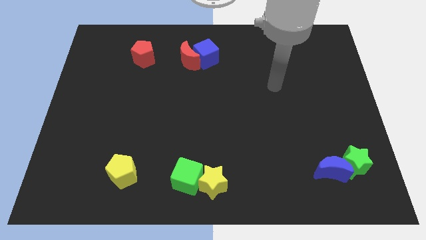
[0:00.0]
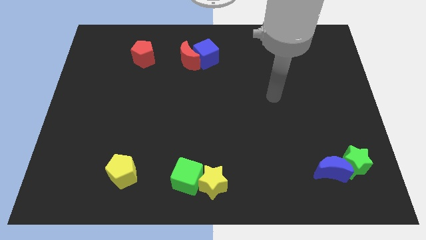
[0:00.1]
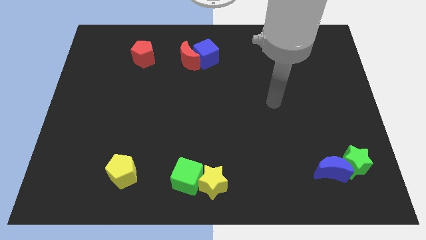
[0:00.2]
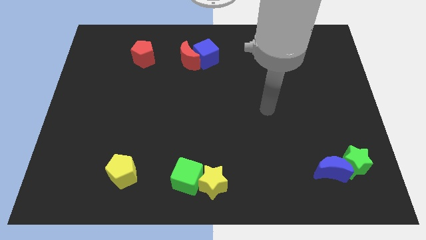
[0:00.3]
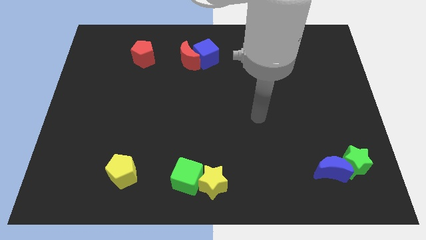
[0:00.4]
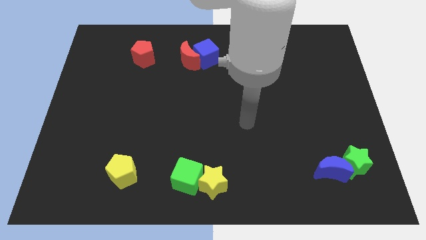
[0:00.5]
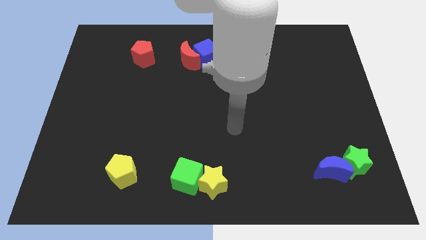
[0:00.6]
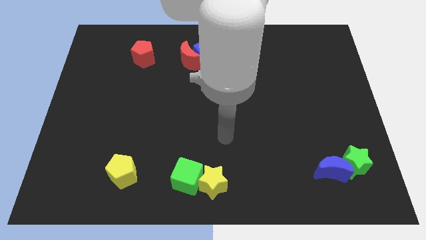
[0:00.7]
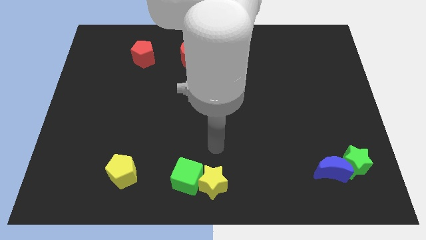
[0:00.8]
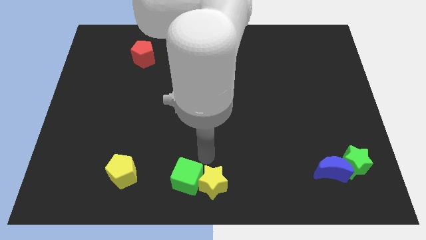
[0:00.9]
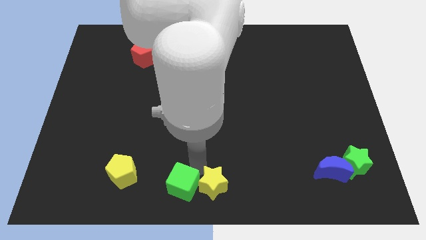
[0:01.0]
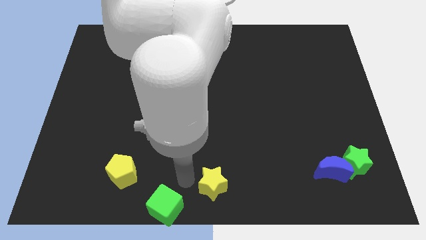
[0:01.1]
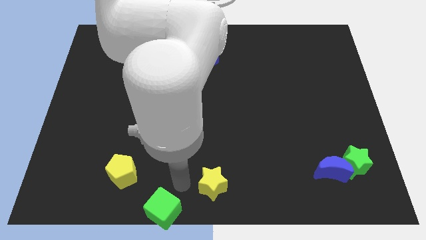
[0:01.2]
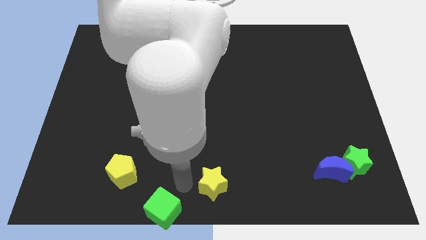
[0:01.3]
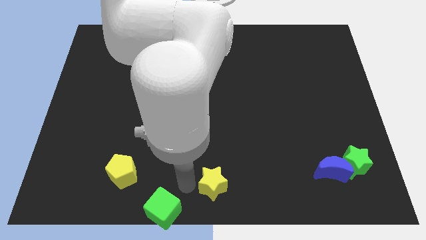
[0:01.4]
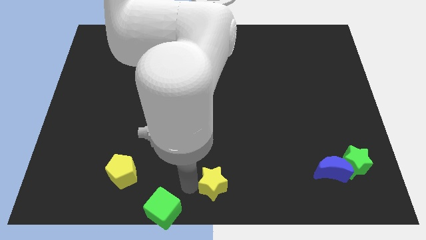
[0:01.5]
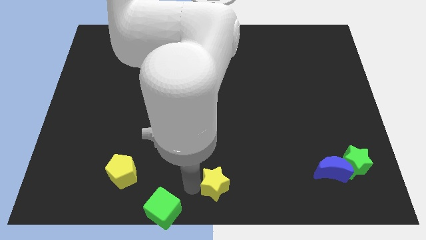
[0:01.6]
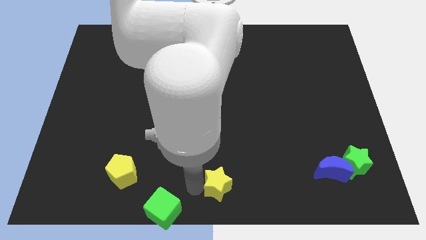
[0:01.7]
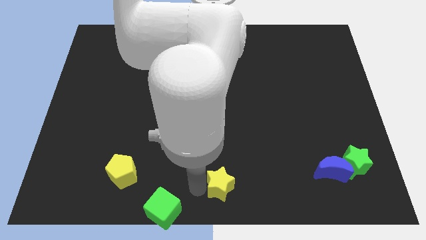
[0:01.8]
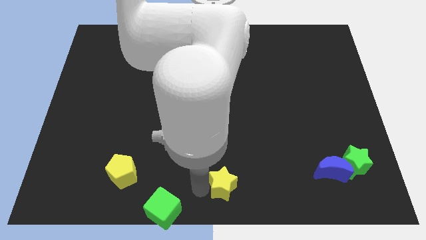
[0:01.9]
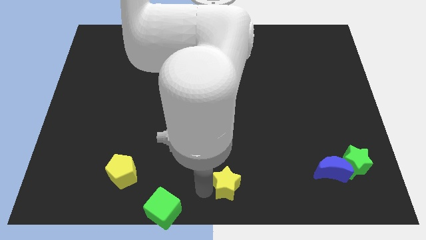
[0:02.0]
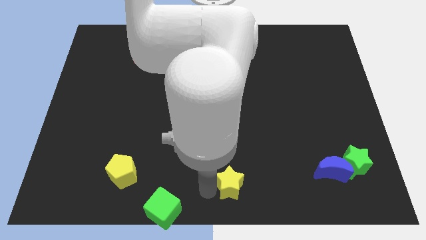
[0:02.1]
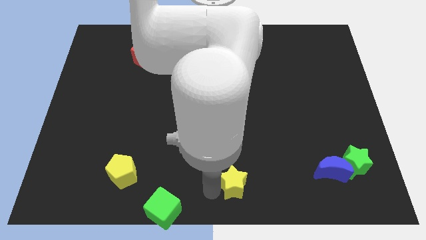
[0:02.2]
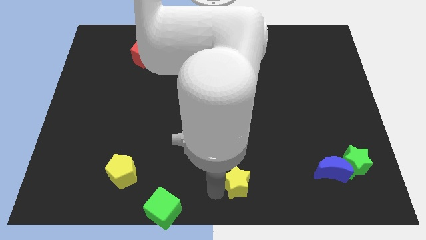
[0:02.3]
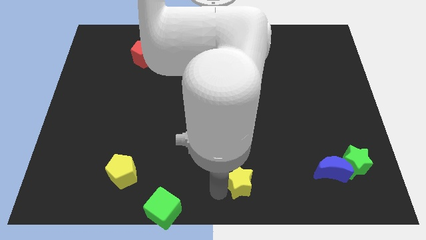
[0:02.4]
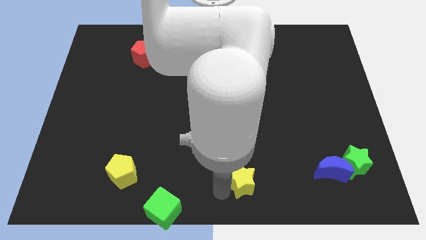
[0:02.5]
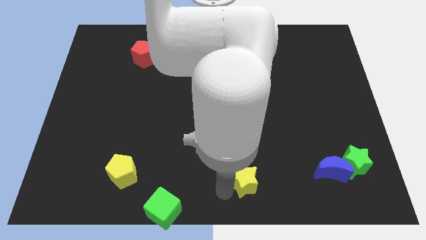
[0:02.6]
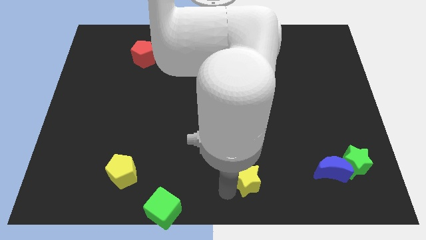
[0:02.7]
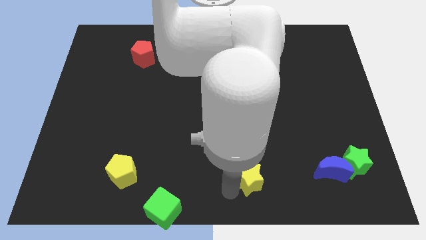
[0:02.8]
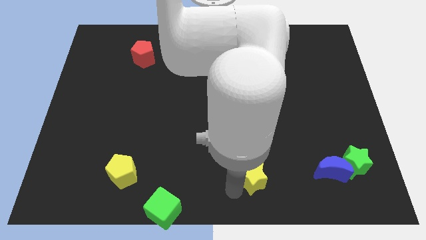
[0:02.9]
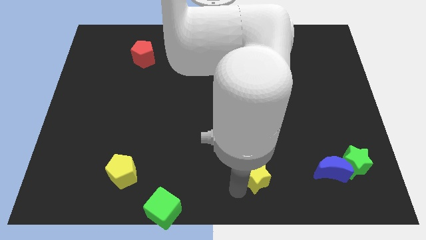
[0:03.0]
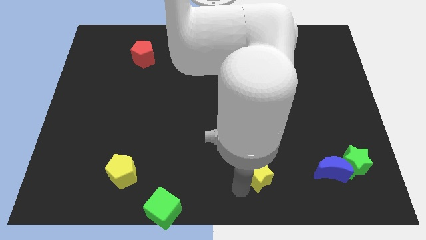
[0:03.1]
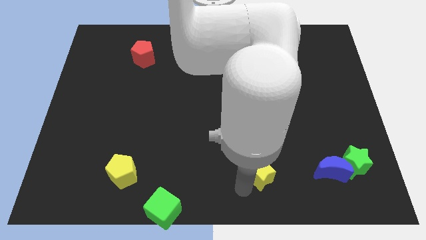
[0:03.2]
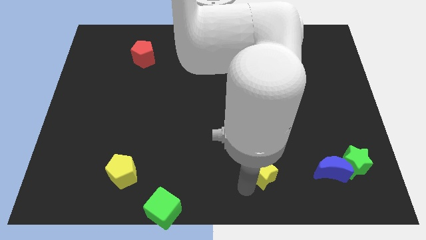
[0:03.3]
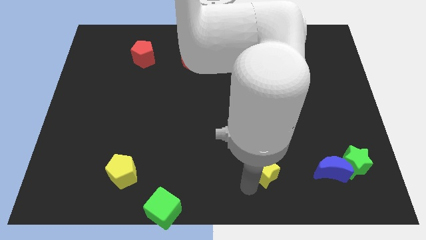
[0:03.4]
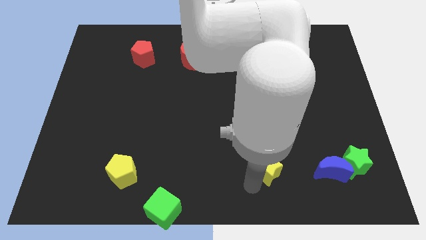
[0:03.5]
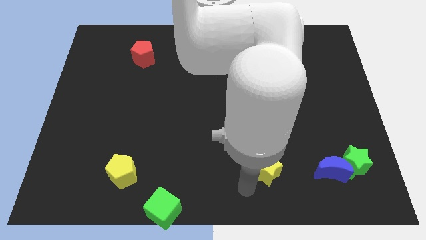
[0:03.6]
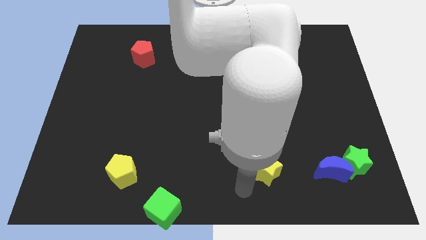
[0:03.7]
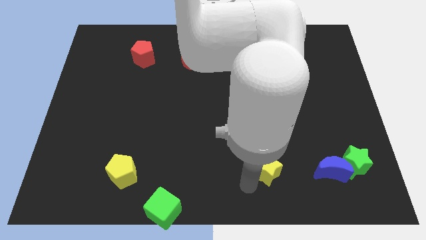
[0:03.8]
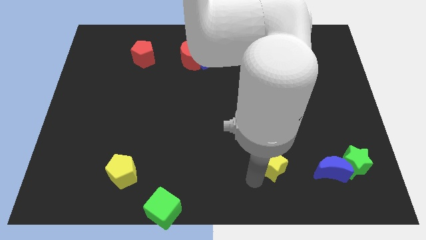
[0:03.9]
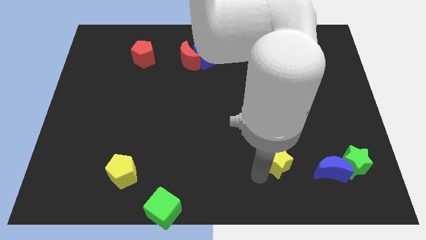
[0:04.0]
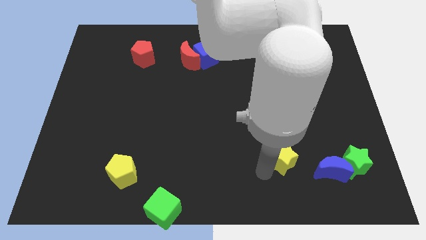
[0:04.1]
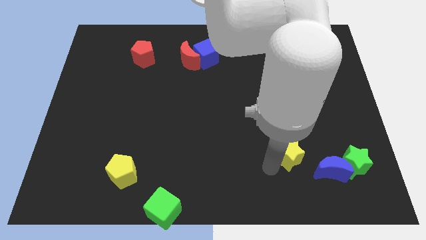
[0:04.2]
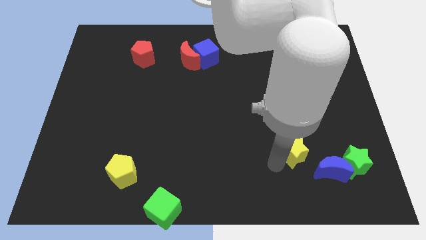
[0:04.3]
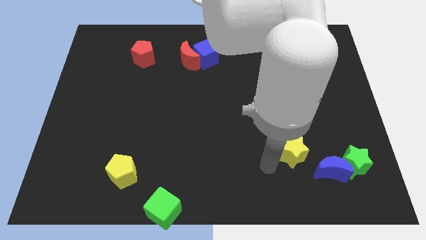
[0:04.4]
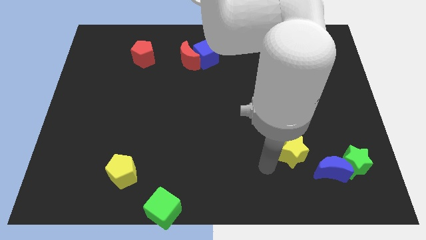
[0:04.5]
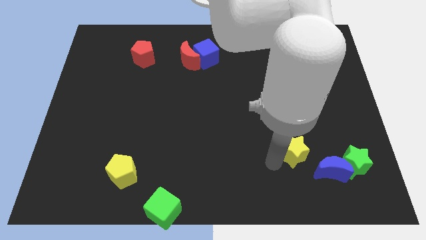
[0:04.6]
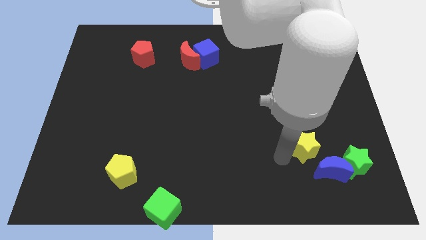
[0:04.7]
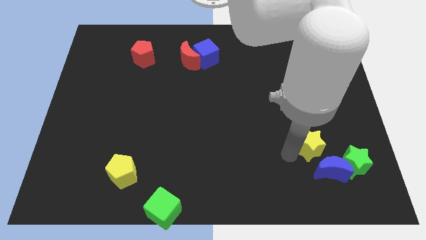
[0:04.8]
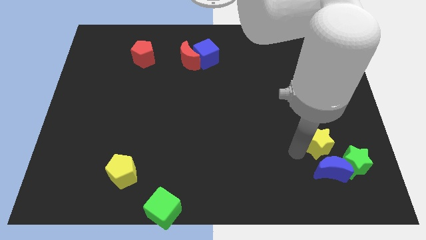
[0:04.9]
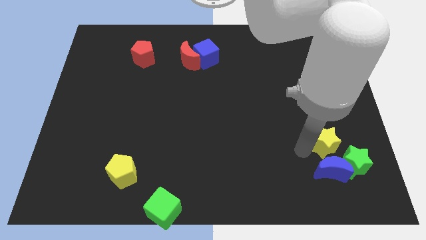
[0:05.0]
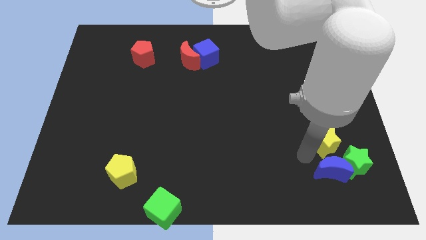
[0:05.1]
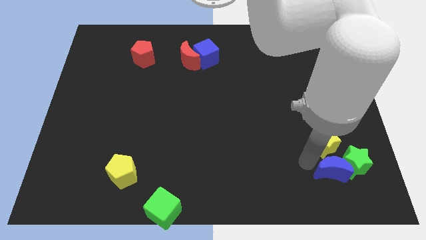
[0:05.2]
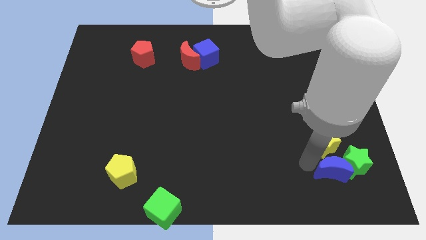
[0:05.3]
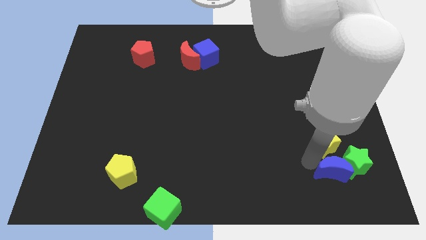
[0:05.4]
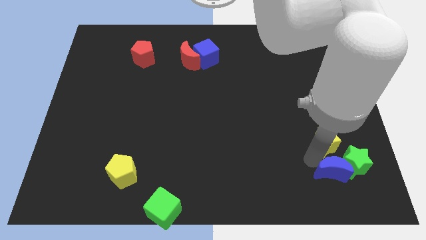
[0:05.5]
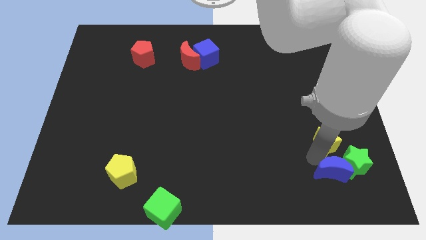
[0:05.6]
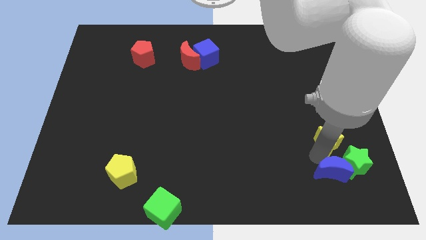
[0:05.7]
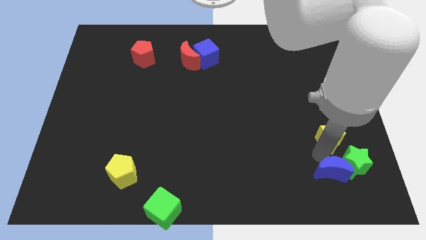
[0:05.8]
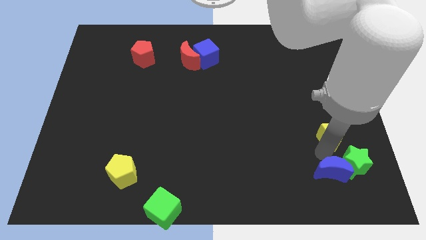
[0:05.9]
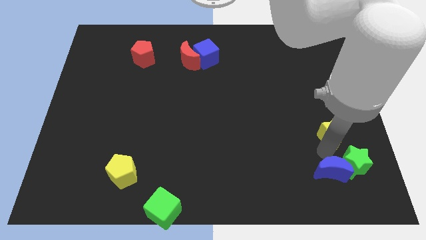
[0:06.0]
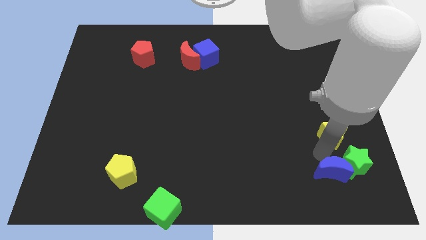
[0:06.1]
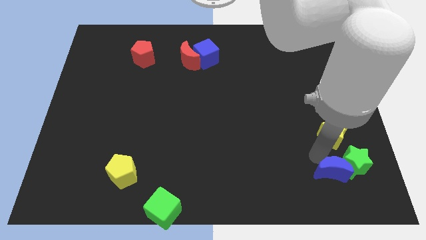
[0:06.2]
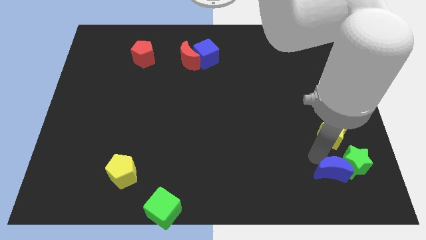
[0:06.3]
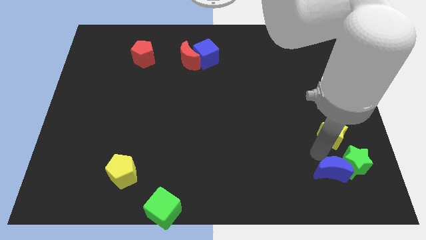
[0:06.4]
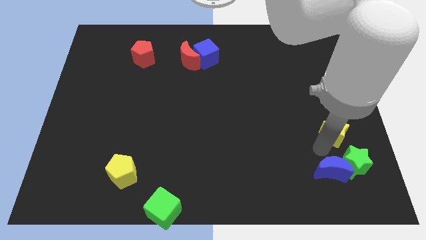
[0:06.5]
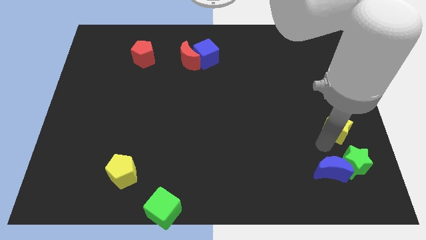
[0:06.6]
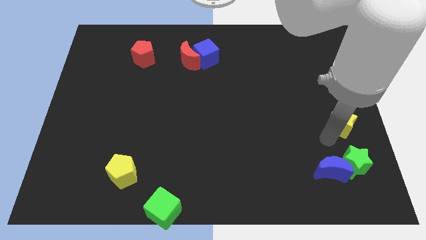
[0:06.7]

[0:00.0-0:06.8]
move the yellow star to the right side of the board

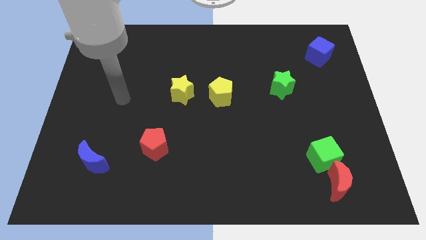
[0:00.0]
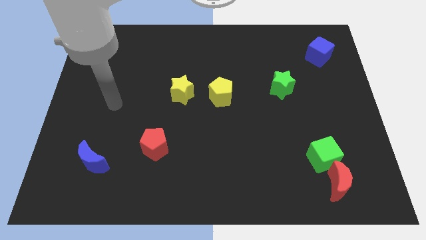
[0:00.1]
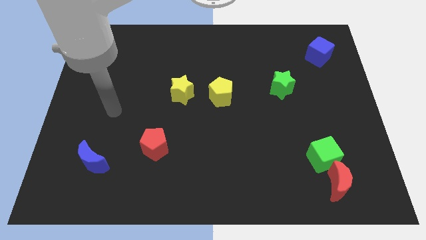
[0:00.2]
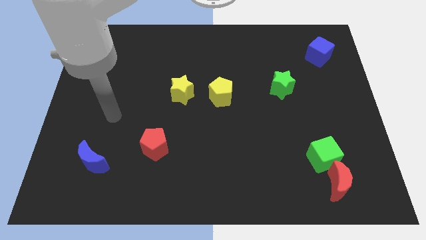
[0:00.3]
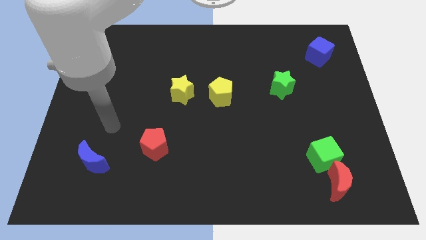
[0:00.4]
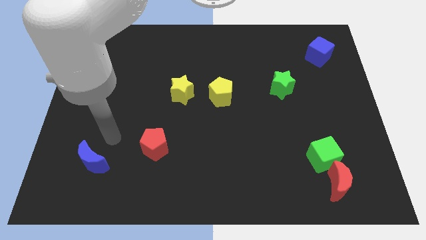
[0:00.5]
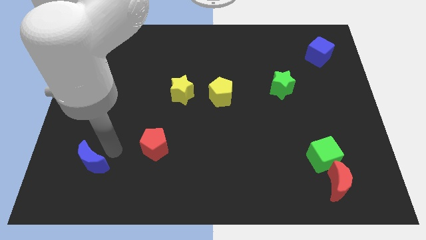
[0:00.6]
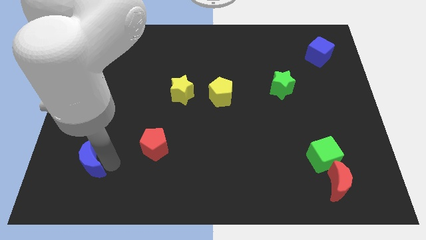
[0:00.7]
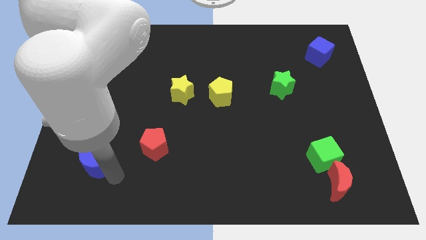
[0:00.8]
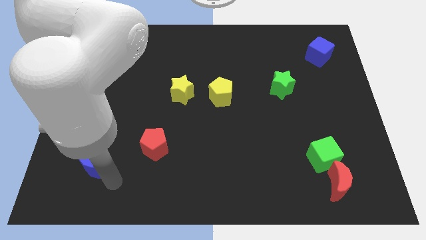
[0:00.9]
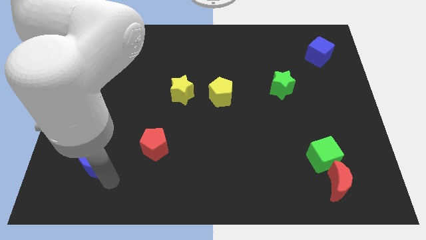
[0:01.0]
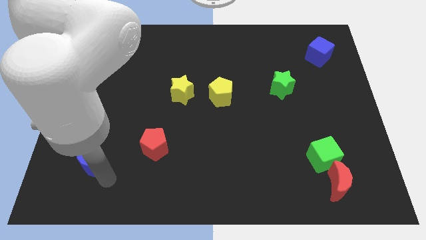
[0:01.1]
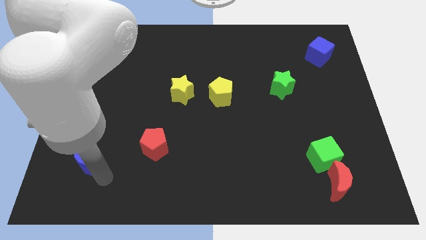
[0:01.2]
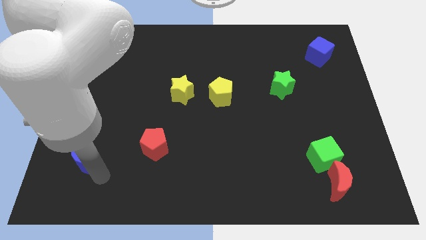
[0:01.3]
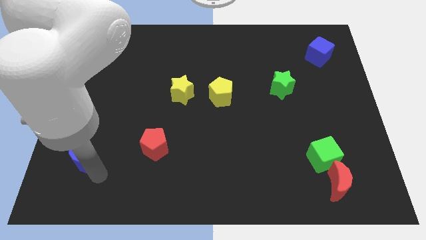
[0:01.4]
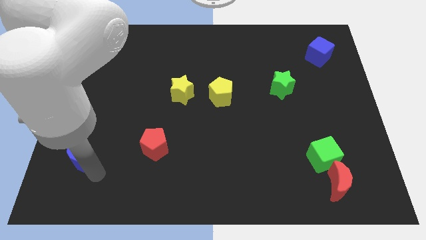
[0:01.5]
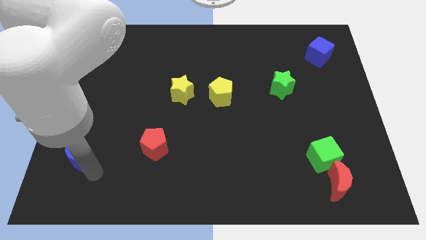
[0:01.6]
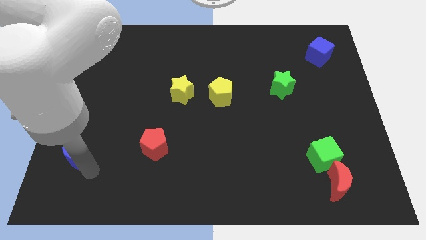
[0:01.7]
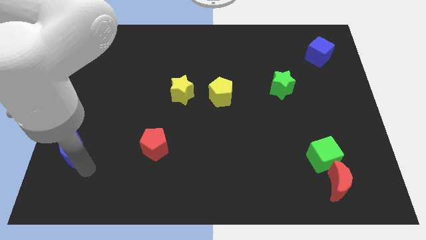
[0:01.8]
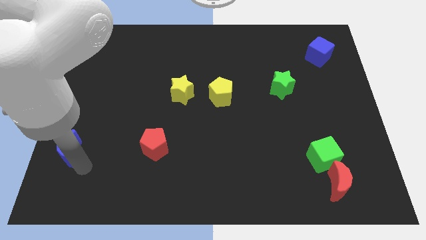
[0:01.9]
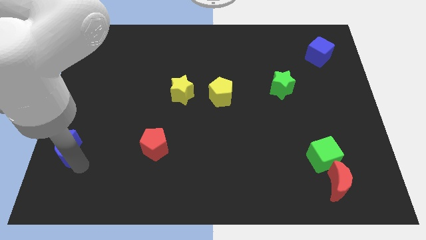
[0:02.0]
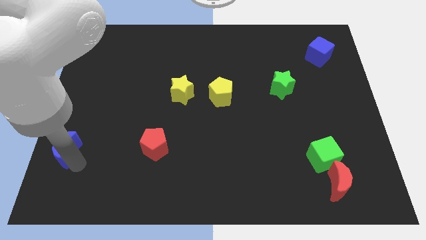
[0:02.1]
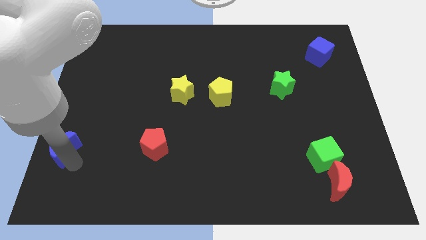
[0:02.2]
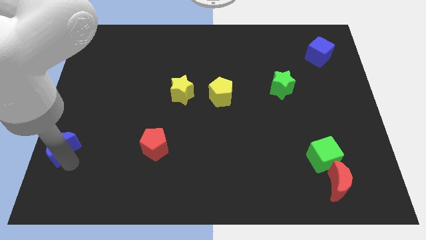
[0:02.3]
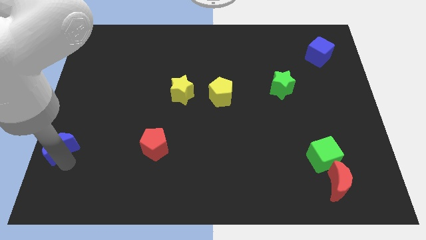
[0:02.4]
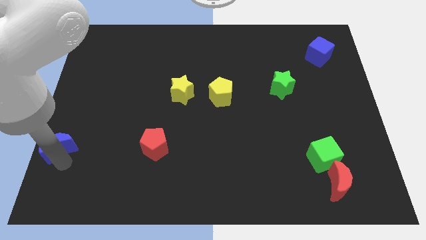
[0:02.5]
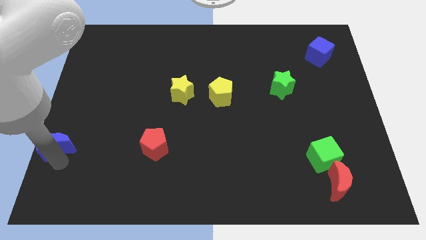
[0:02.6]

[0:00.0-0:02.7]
put the blue moon to the center left
